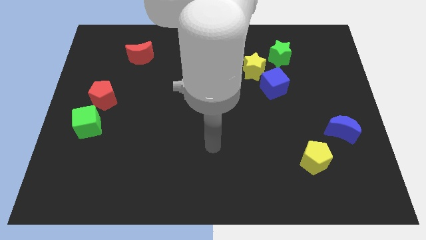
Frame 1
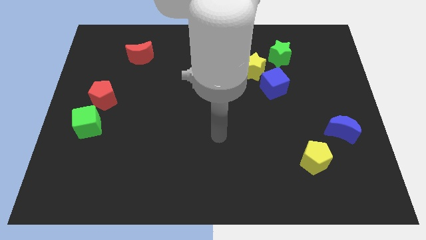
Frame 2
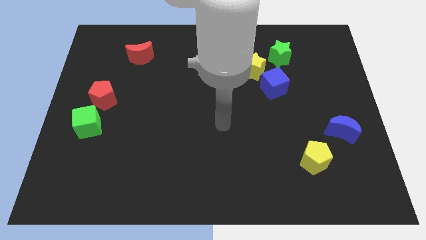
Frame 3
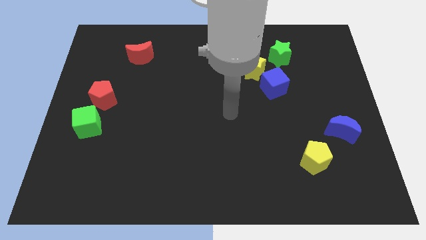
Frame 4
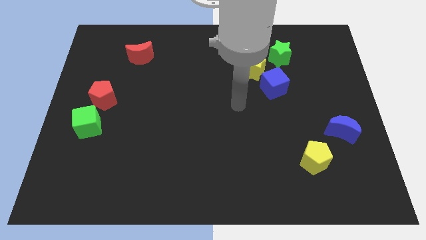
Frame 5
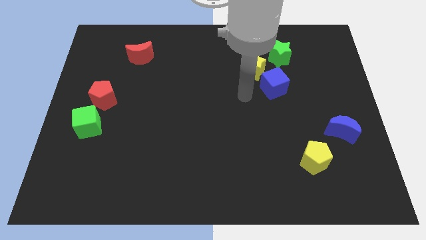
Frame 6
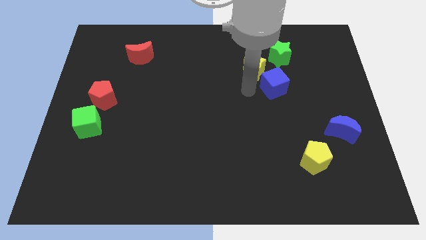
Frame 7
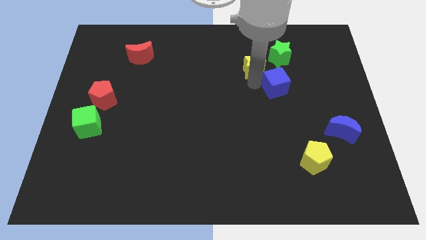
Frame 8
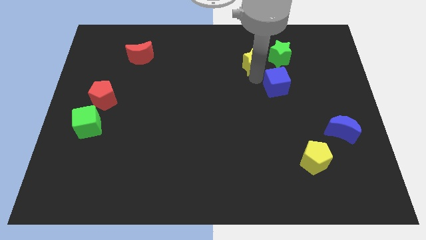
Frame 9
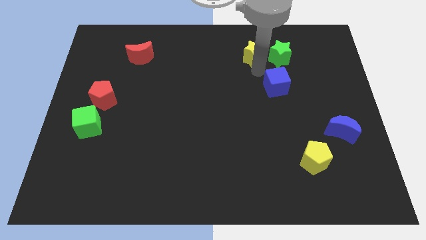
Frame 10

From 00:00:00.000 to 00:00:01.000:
separate the blue cube from the yellow star

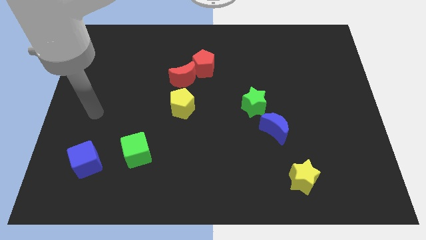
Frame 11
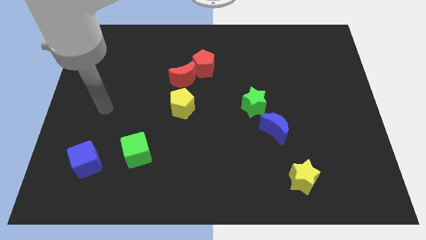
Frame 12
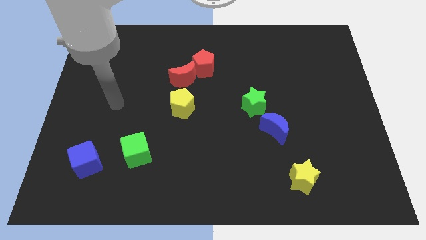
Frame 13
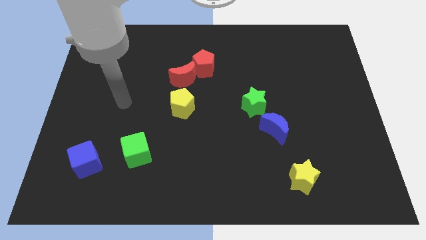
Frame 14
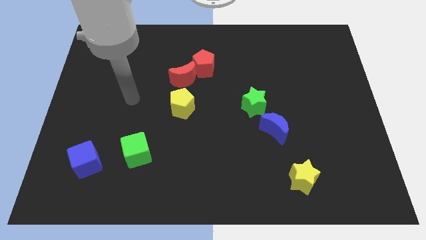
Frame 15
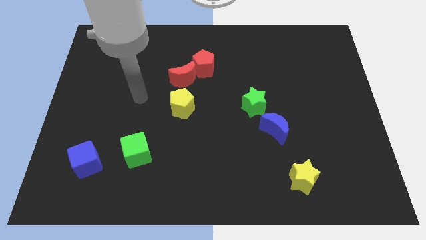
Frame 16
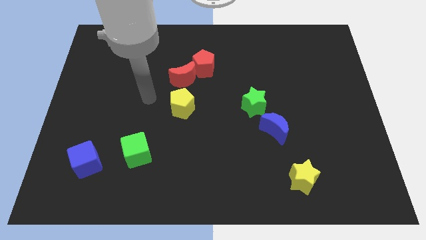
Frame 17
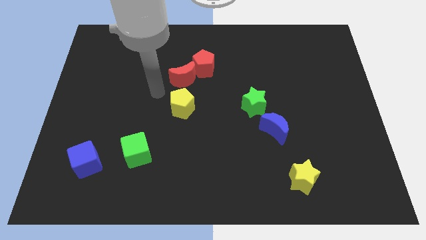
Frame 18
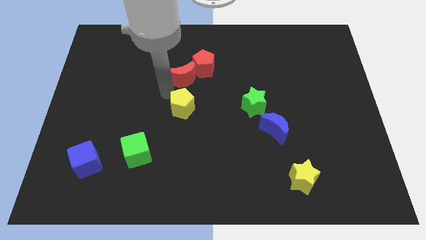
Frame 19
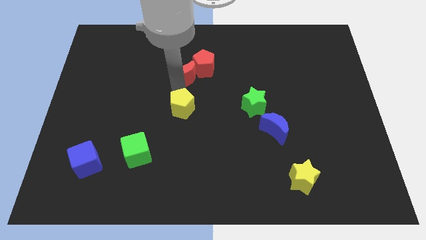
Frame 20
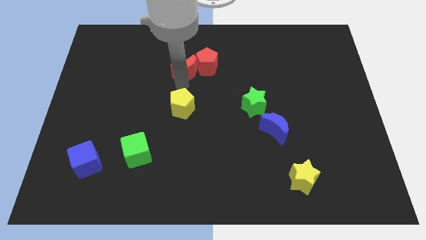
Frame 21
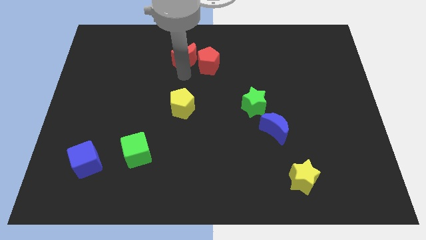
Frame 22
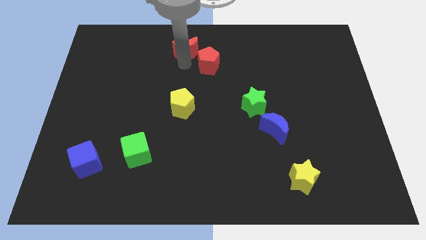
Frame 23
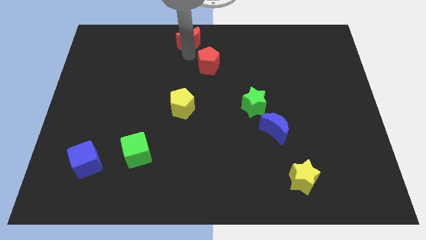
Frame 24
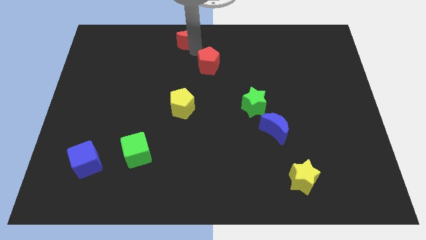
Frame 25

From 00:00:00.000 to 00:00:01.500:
separate the red pentagon from the red moon

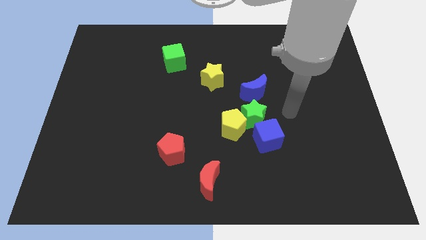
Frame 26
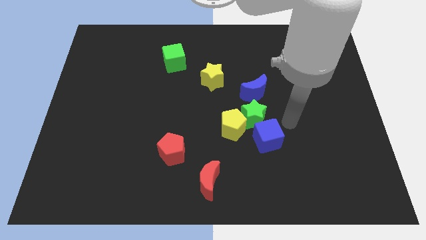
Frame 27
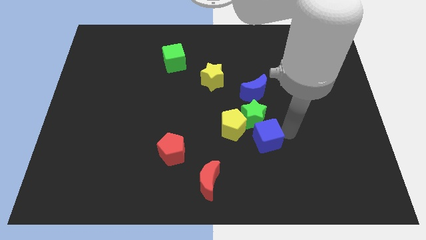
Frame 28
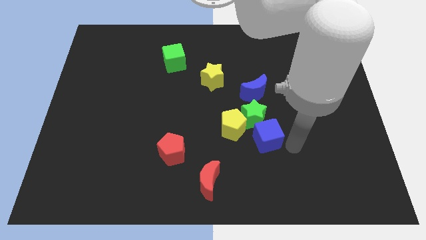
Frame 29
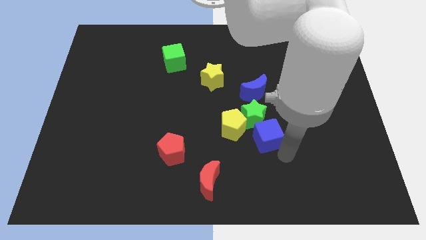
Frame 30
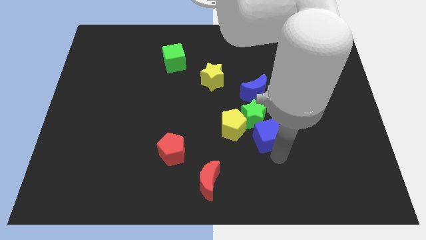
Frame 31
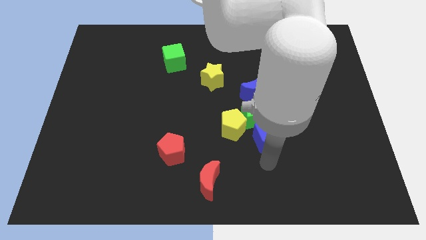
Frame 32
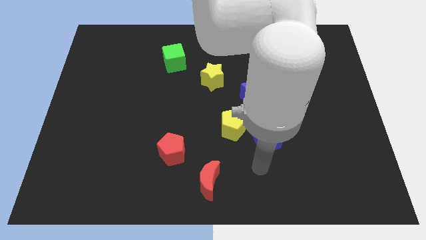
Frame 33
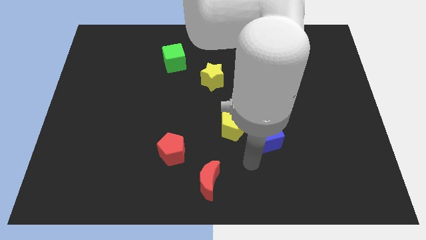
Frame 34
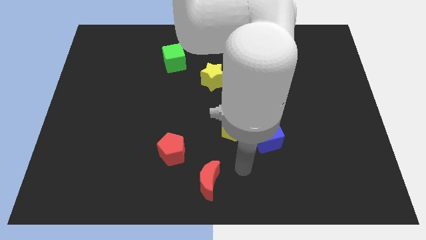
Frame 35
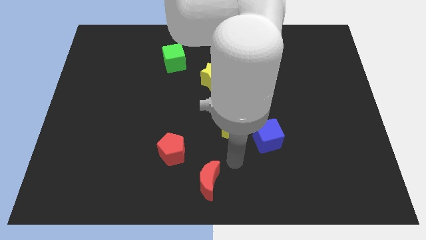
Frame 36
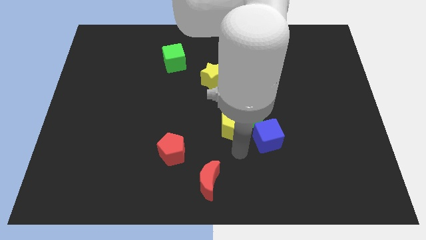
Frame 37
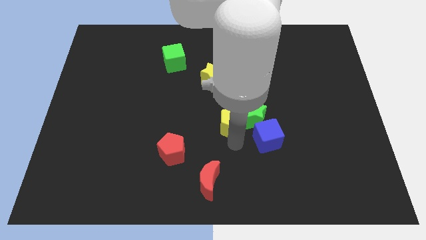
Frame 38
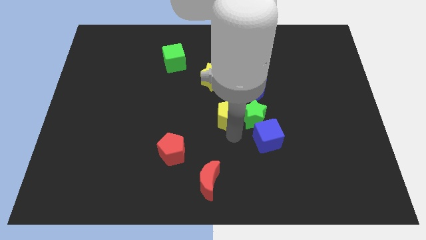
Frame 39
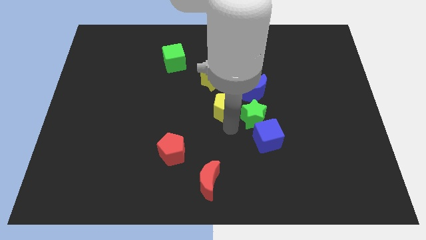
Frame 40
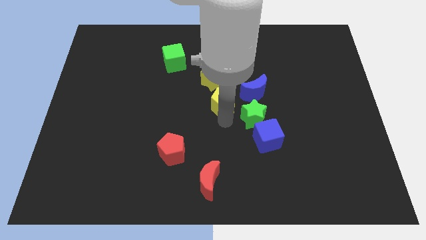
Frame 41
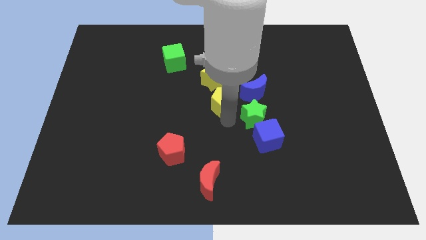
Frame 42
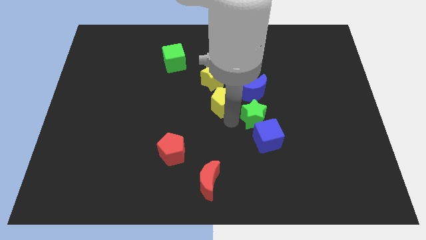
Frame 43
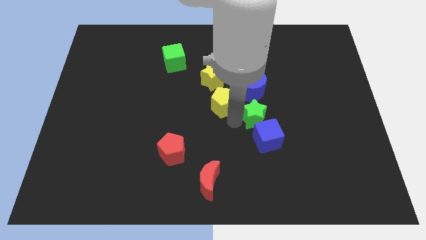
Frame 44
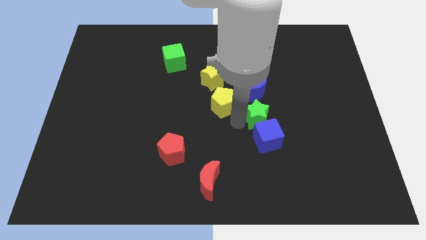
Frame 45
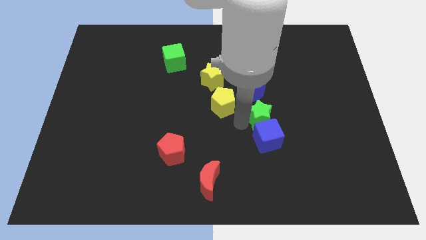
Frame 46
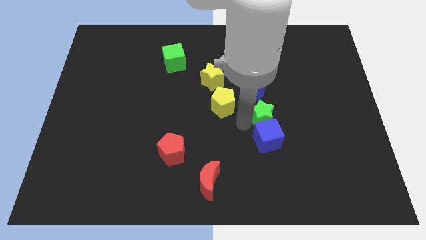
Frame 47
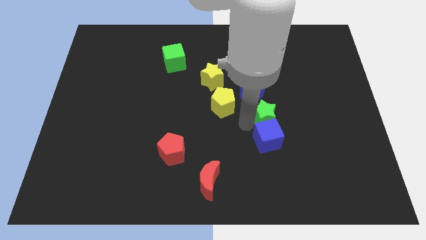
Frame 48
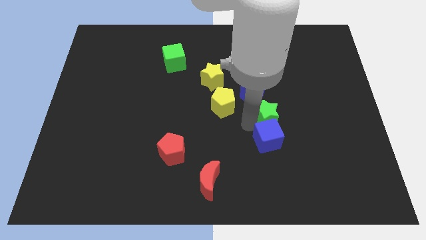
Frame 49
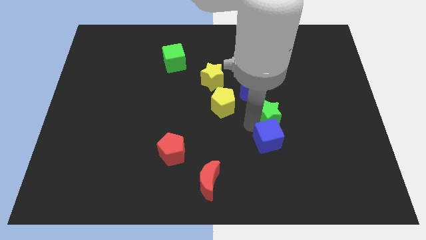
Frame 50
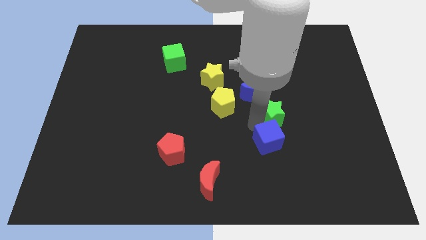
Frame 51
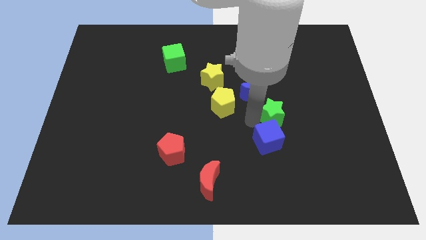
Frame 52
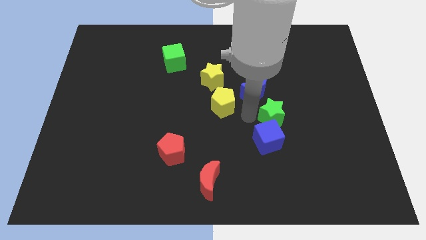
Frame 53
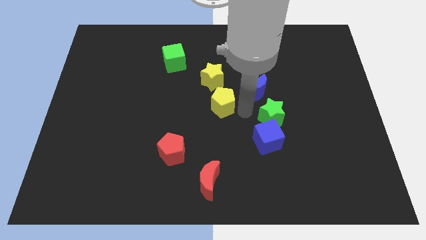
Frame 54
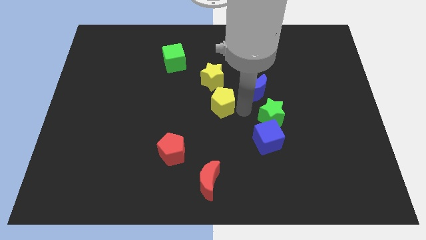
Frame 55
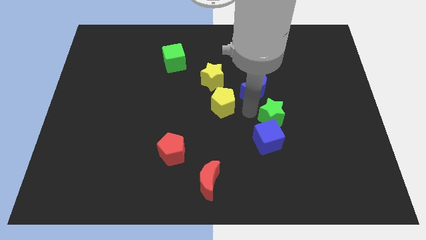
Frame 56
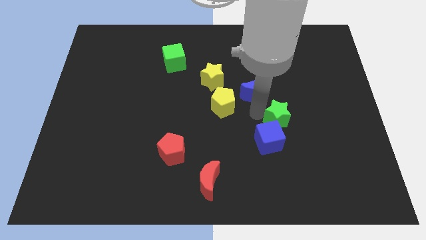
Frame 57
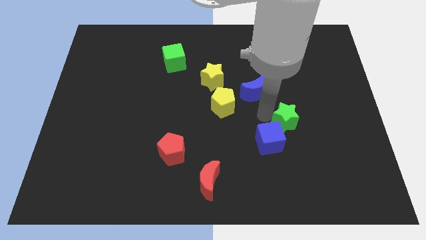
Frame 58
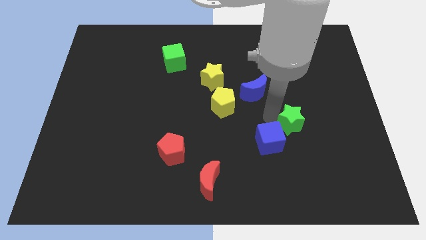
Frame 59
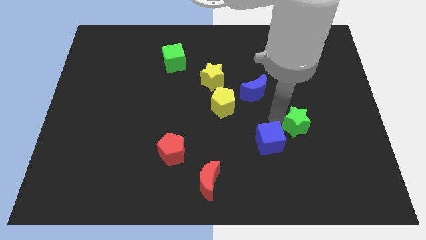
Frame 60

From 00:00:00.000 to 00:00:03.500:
separate the green star from the yellow pentagon, blue cube, and blue moon

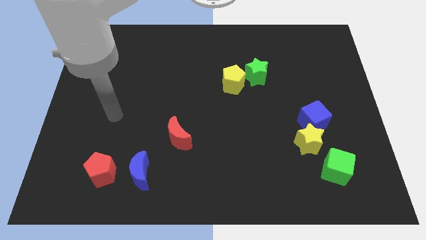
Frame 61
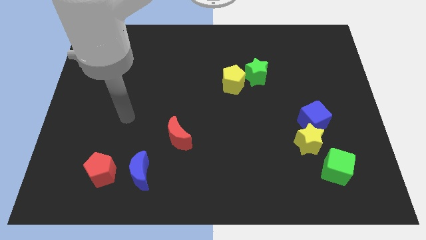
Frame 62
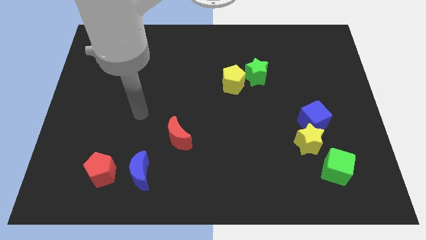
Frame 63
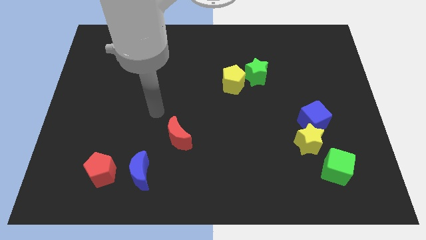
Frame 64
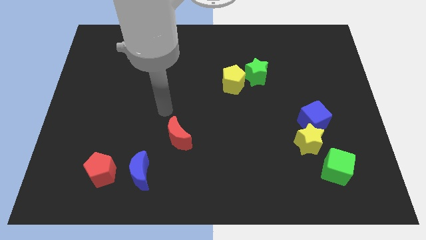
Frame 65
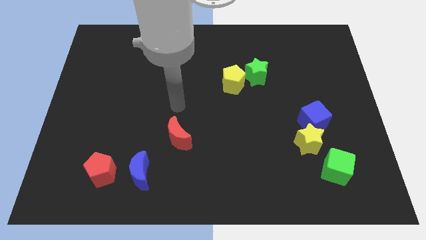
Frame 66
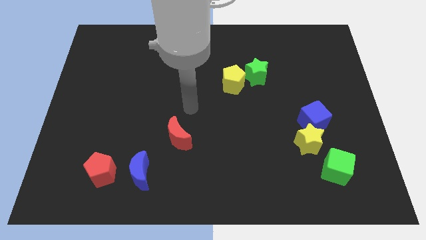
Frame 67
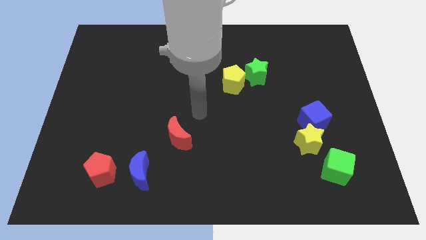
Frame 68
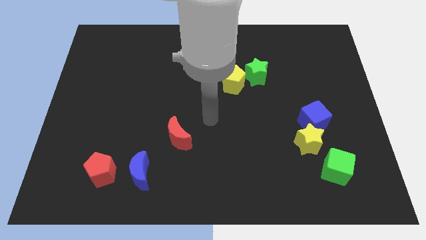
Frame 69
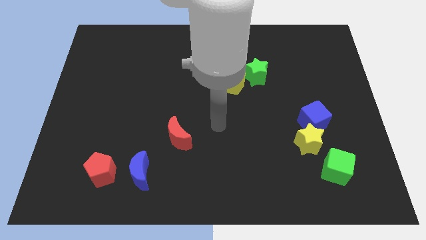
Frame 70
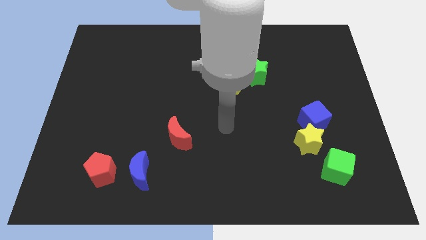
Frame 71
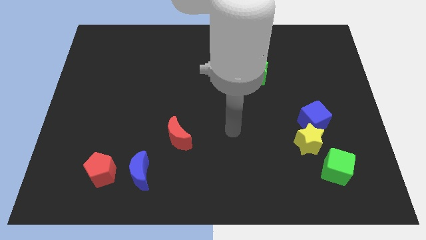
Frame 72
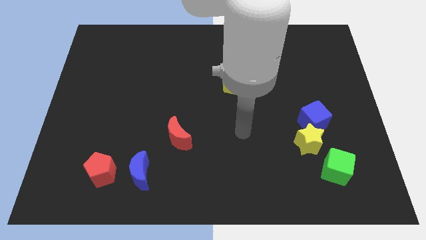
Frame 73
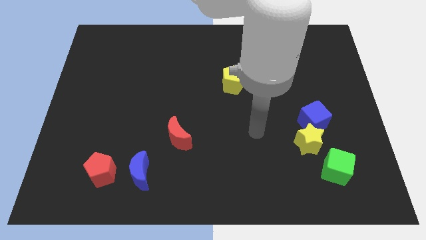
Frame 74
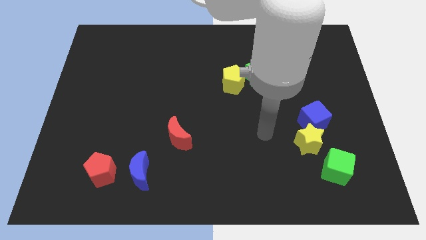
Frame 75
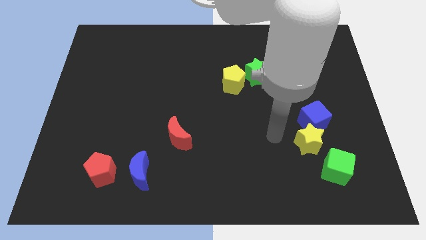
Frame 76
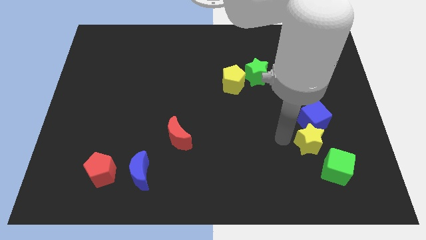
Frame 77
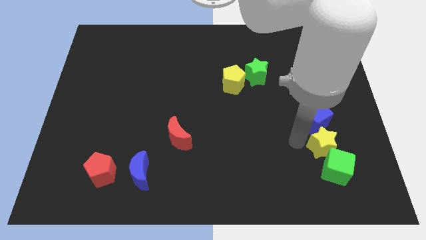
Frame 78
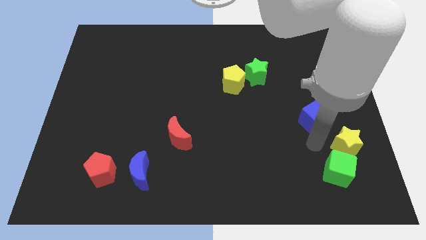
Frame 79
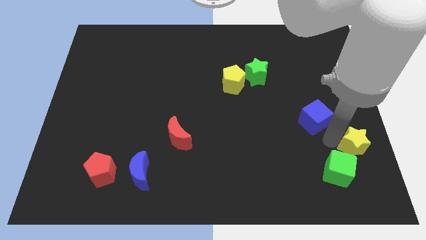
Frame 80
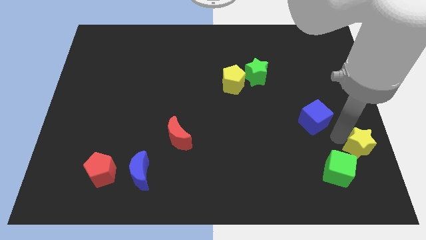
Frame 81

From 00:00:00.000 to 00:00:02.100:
pull the blue cube apart from the yellow star

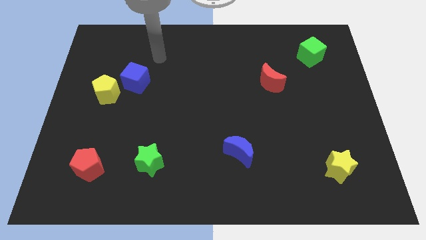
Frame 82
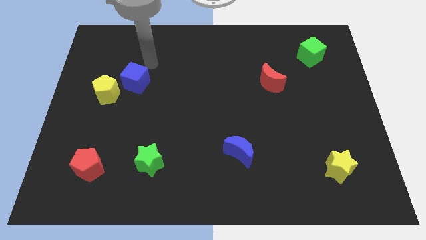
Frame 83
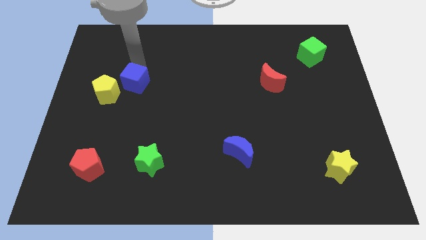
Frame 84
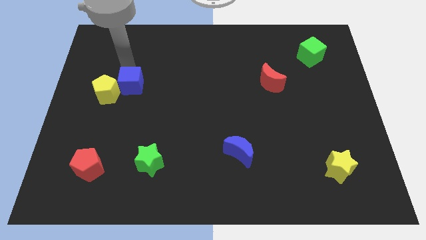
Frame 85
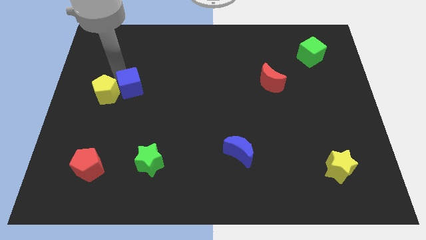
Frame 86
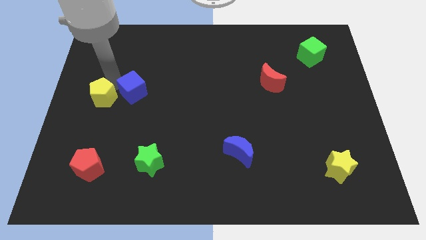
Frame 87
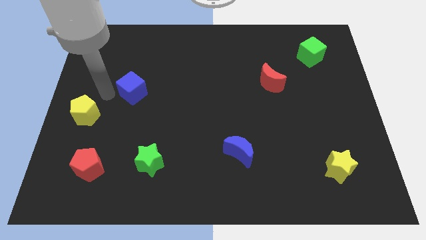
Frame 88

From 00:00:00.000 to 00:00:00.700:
pull the blue cube apart from the yellow pentagon

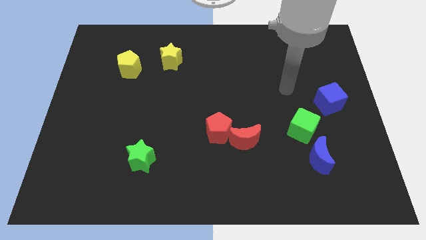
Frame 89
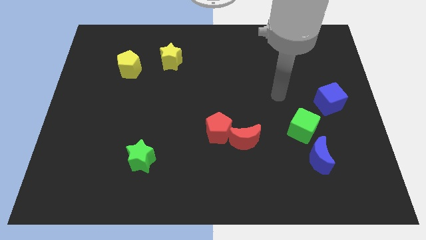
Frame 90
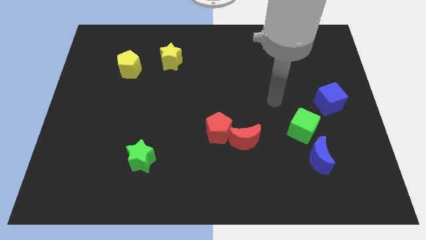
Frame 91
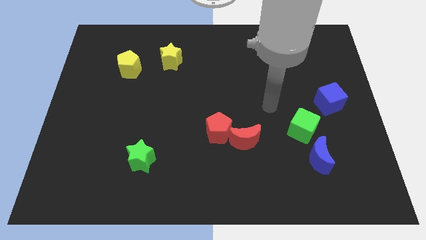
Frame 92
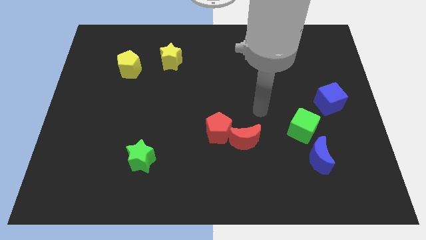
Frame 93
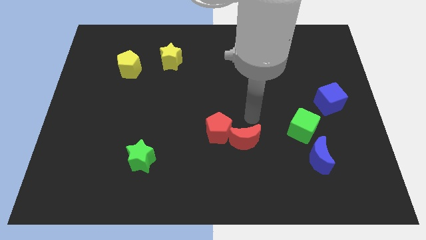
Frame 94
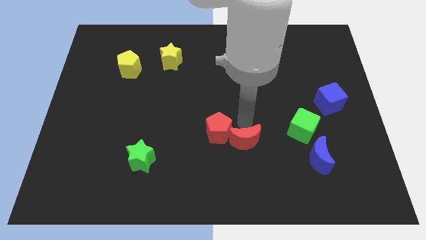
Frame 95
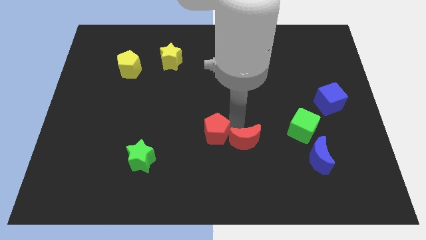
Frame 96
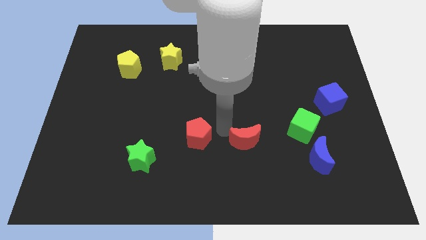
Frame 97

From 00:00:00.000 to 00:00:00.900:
move the red moon away from the red pentagon
